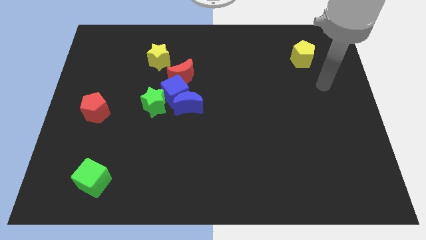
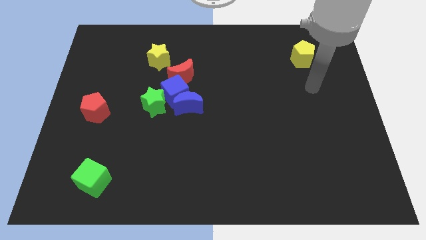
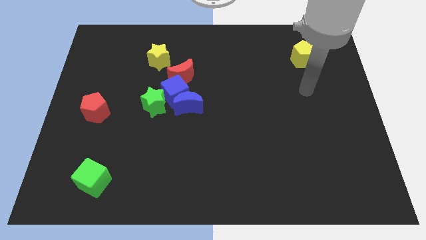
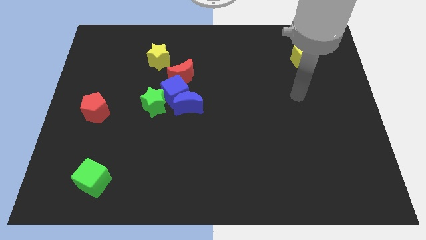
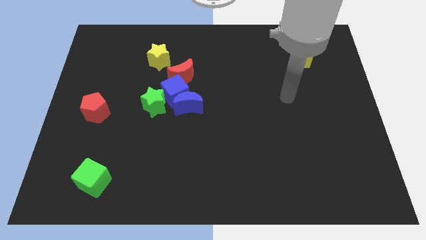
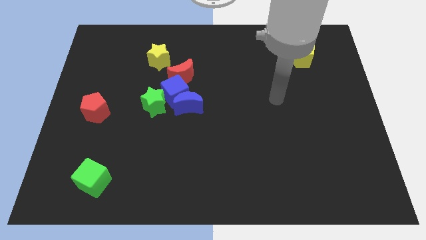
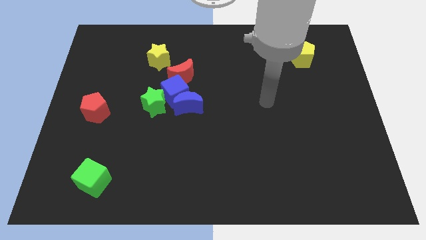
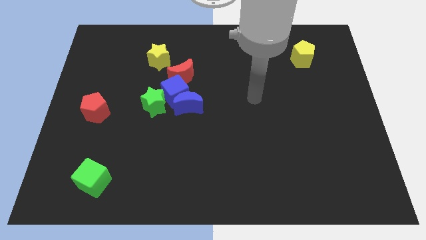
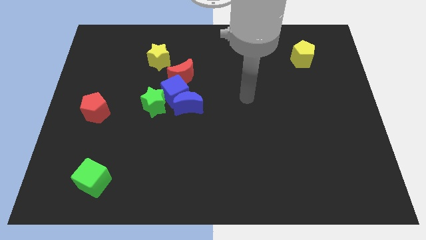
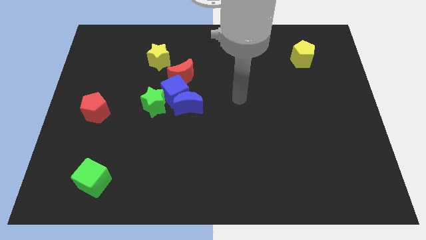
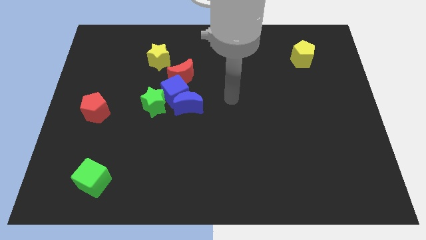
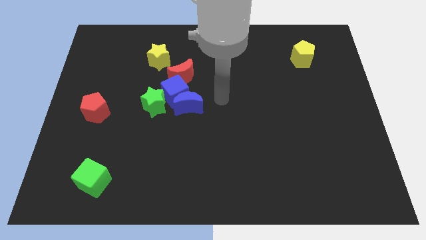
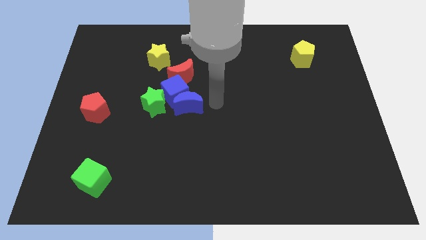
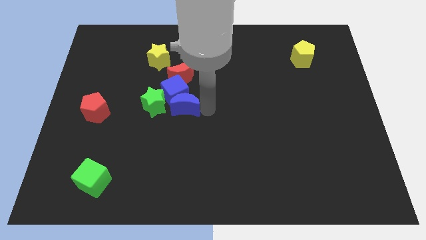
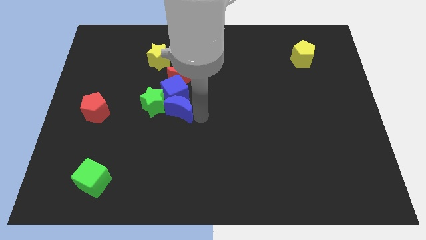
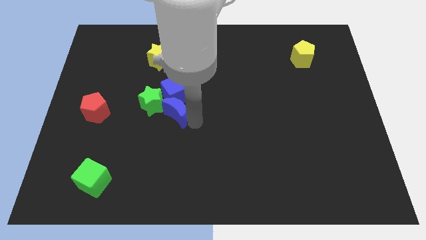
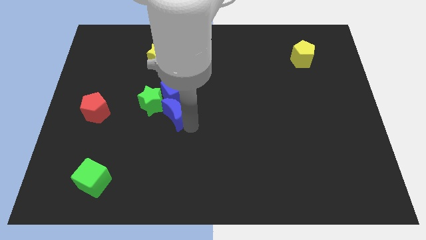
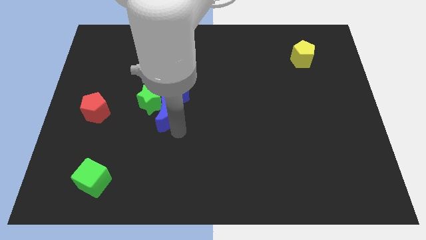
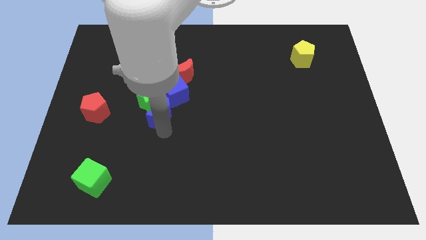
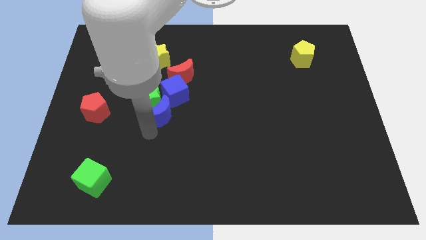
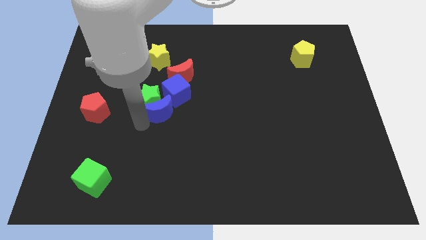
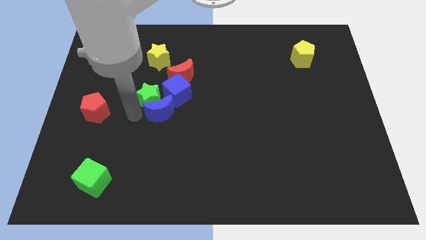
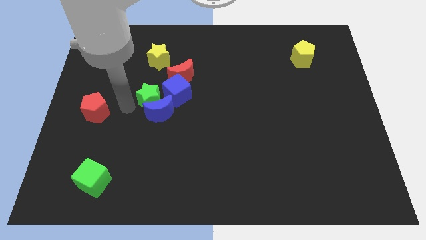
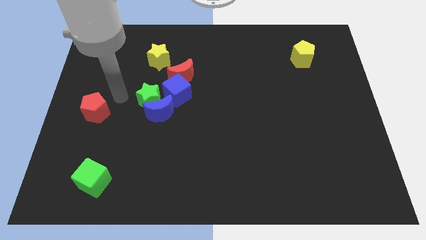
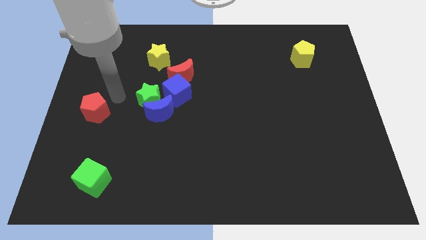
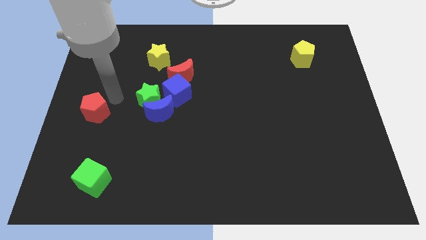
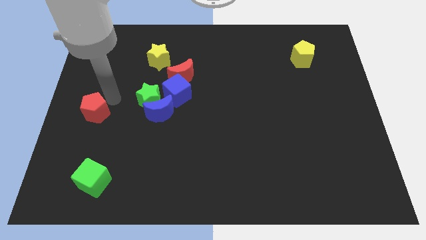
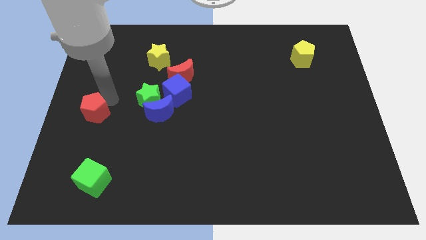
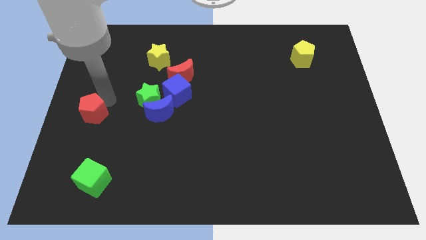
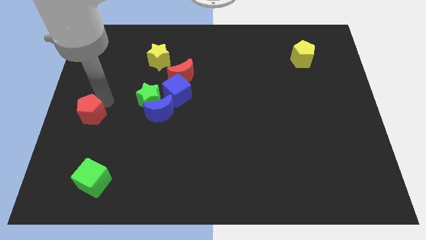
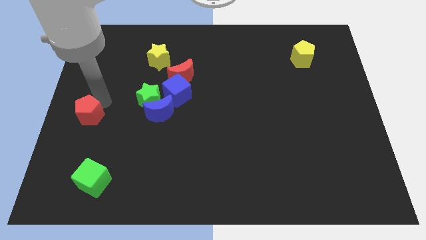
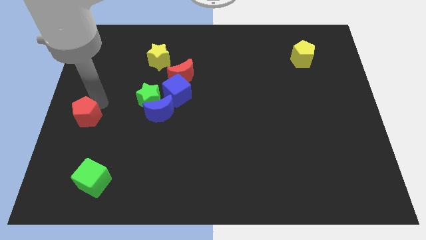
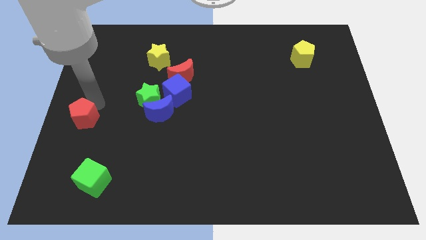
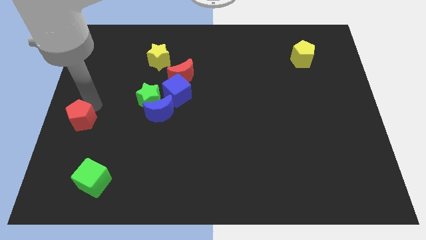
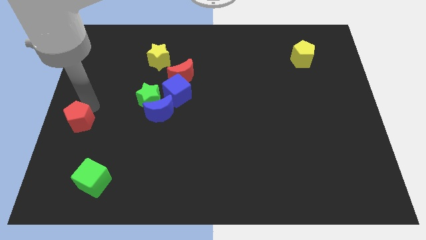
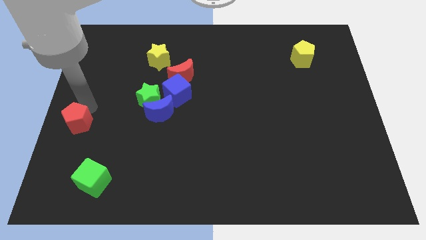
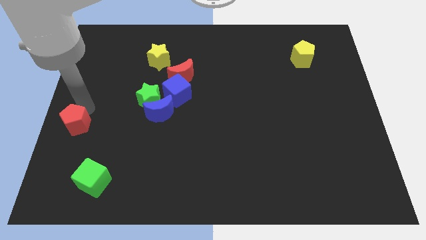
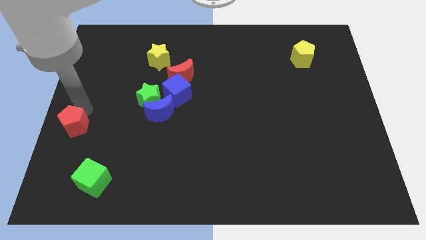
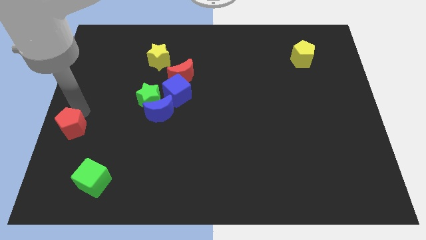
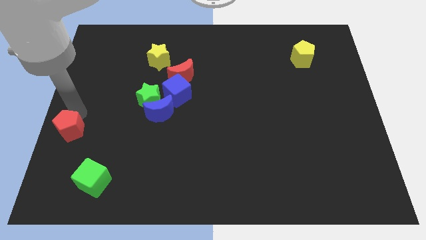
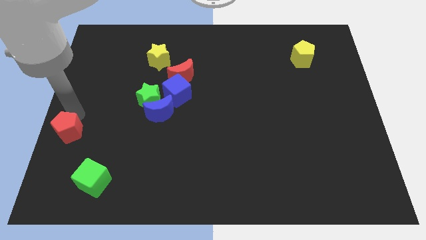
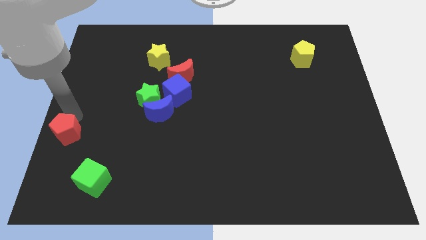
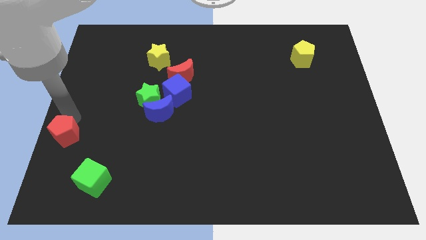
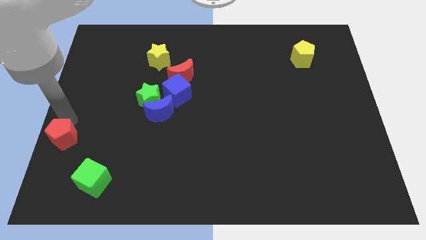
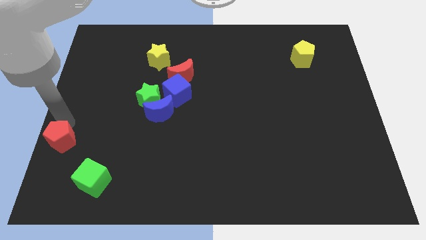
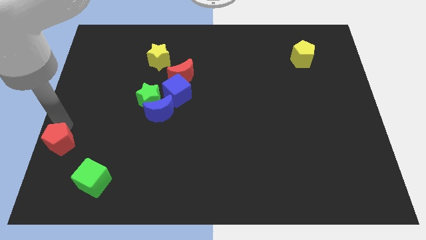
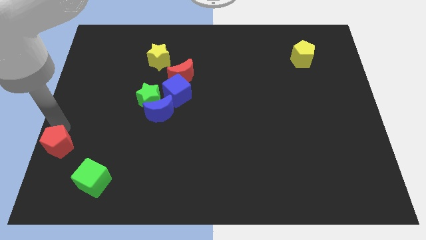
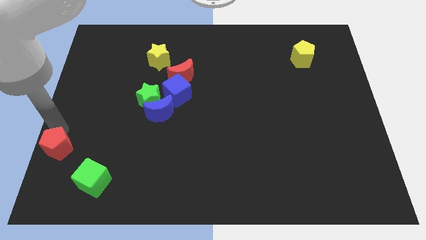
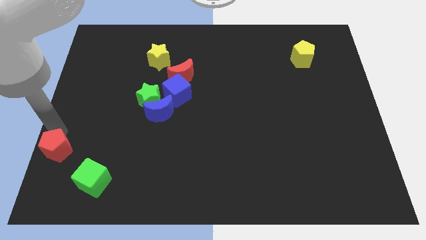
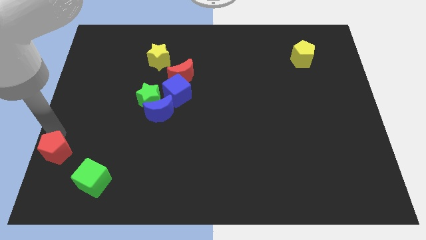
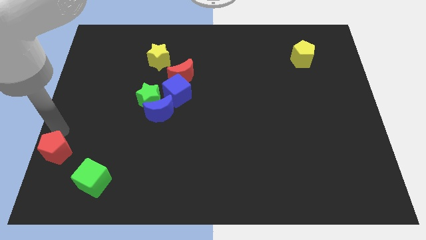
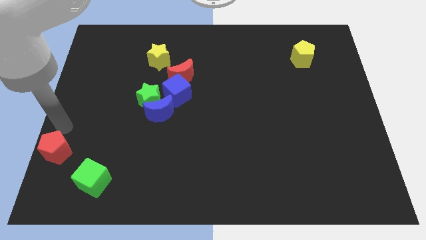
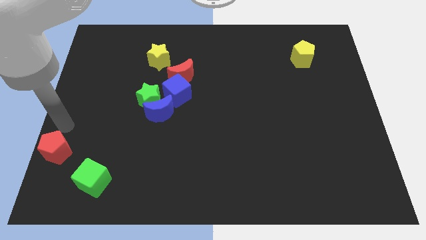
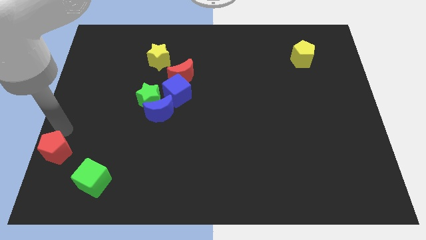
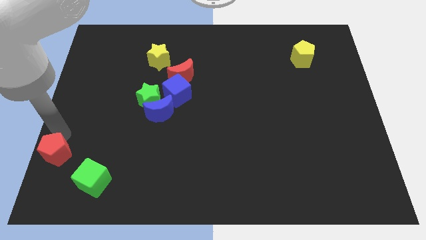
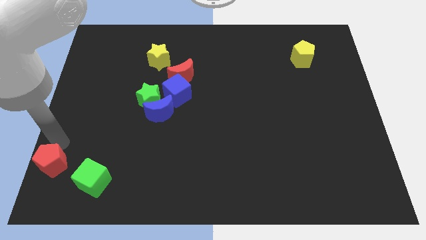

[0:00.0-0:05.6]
put the red pentagon to the lower left corner
